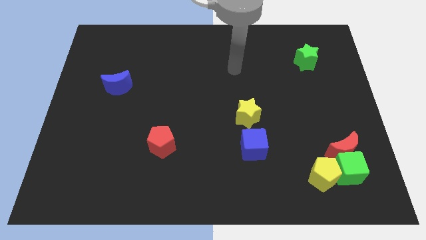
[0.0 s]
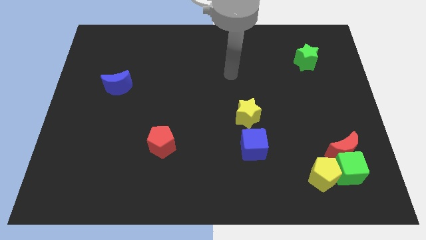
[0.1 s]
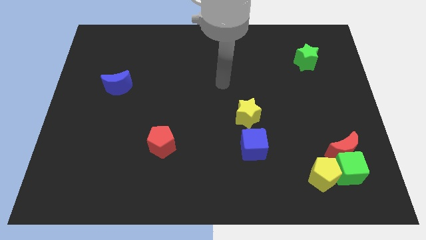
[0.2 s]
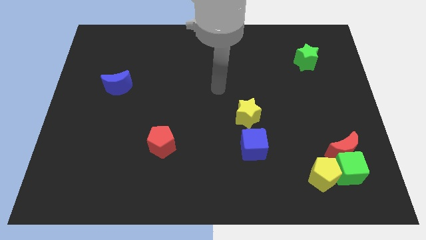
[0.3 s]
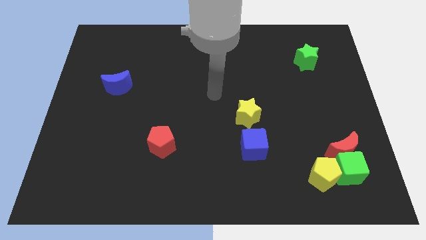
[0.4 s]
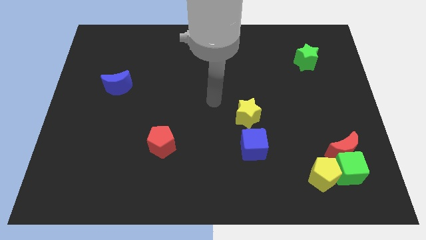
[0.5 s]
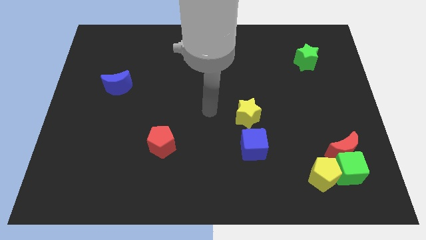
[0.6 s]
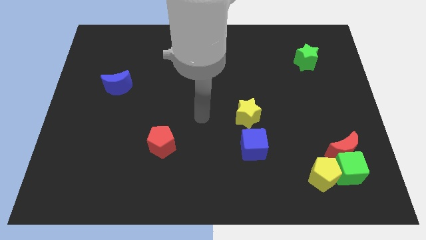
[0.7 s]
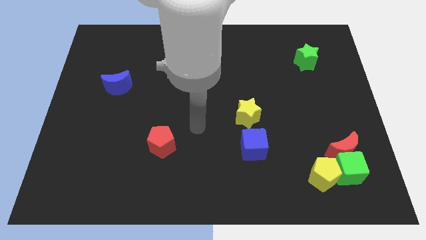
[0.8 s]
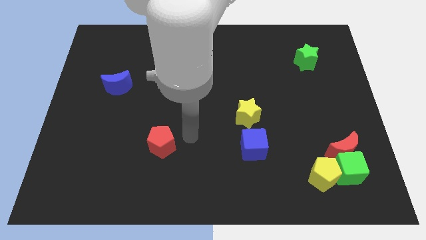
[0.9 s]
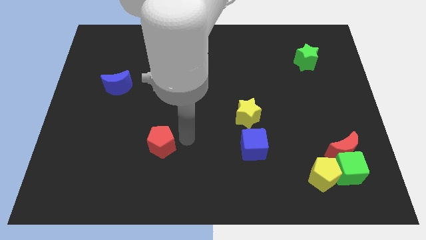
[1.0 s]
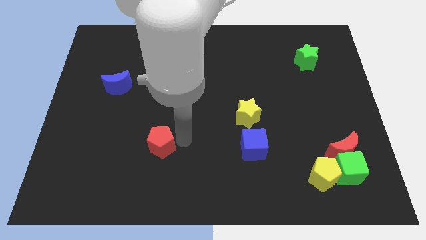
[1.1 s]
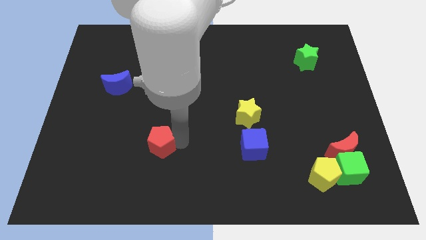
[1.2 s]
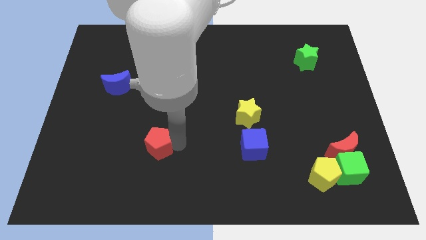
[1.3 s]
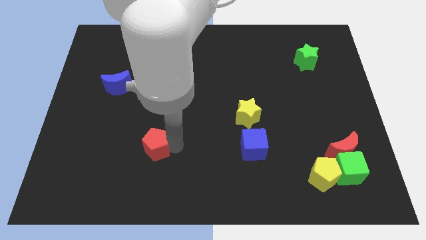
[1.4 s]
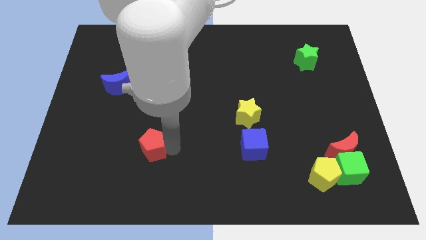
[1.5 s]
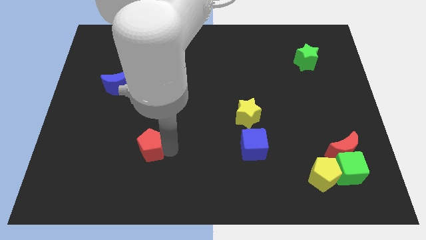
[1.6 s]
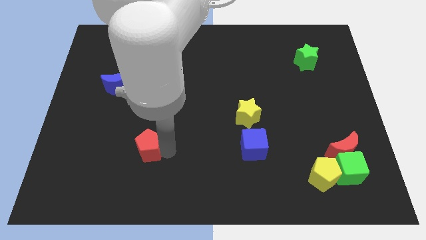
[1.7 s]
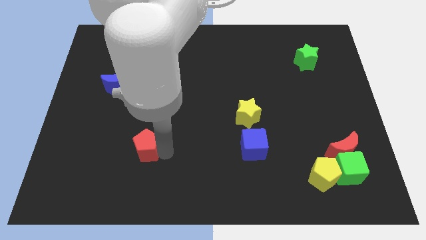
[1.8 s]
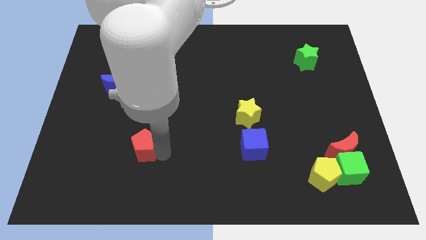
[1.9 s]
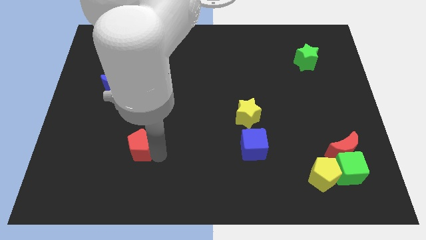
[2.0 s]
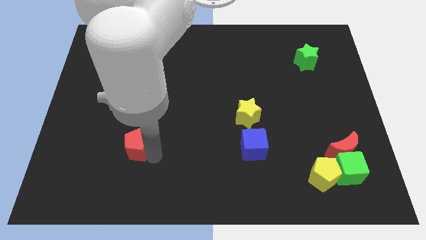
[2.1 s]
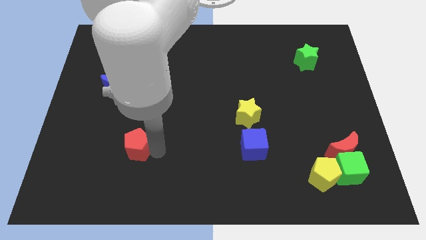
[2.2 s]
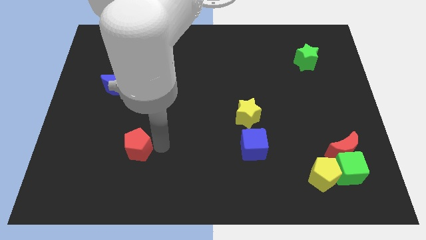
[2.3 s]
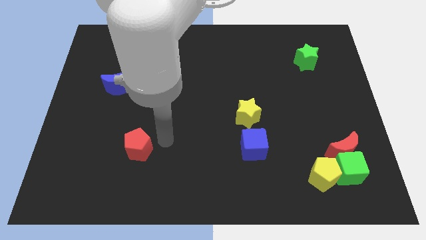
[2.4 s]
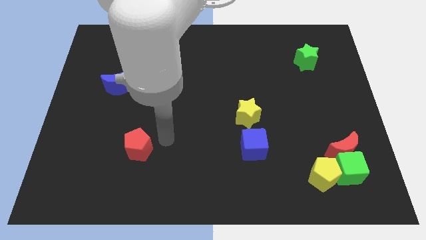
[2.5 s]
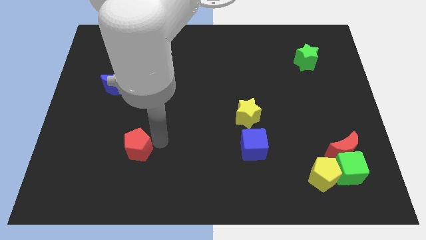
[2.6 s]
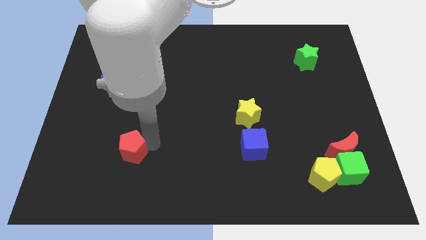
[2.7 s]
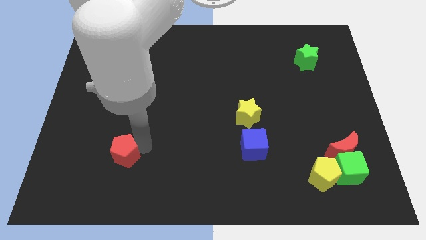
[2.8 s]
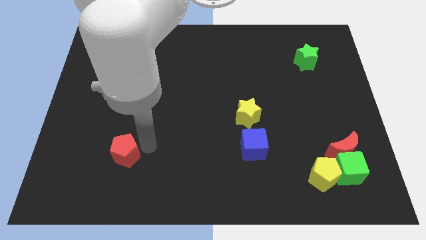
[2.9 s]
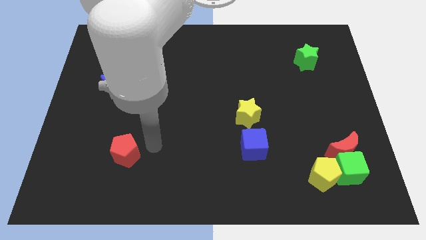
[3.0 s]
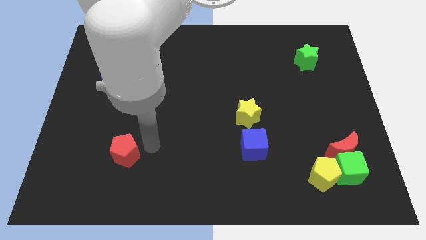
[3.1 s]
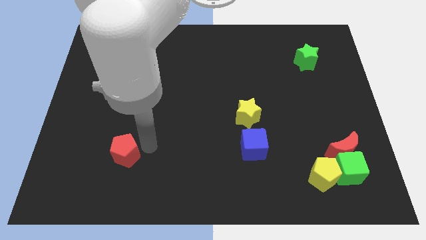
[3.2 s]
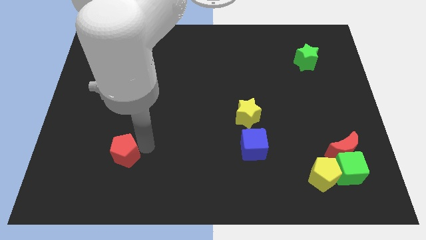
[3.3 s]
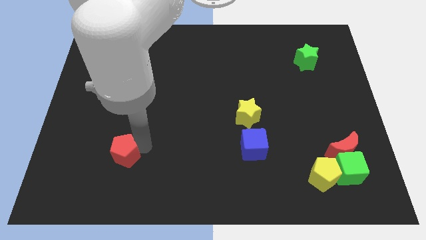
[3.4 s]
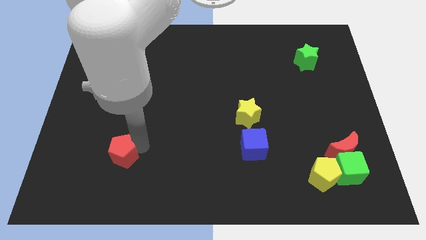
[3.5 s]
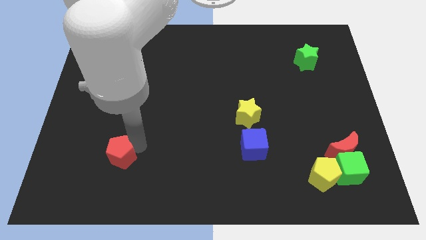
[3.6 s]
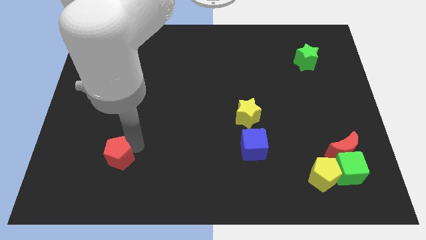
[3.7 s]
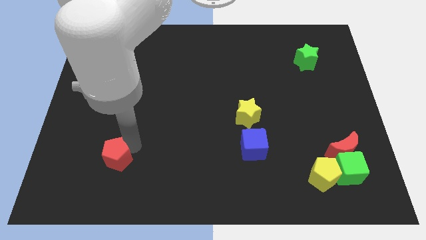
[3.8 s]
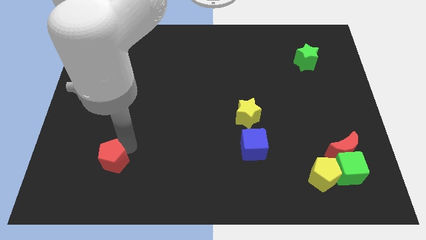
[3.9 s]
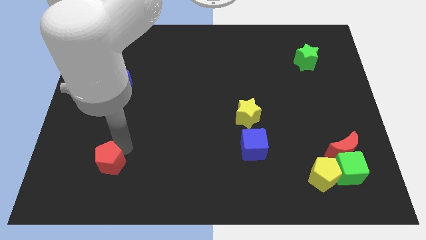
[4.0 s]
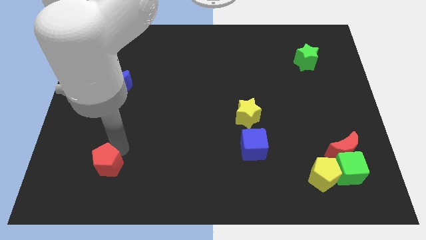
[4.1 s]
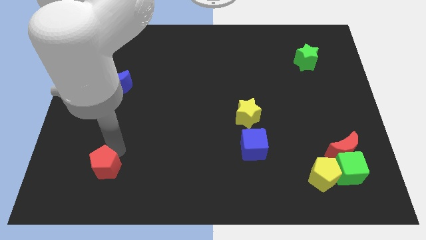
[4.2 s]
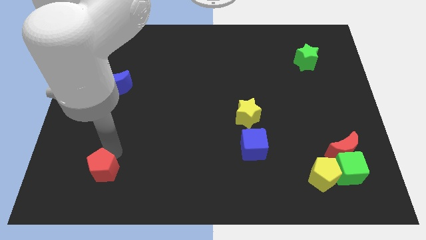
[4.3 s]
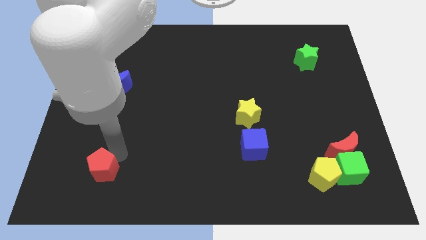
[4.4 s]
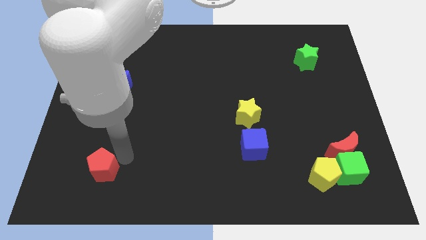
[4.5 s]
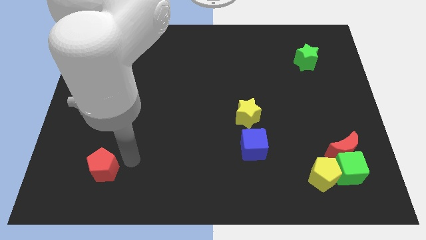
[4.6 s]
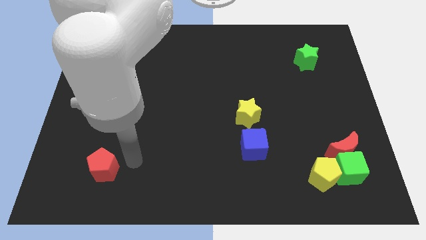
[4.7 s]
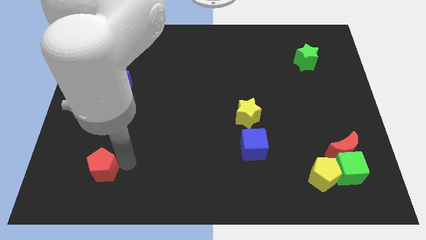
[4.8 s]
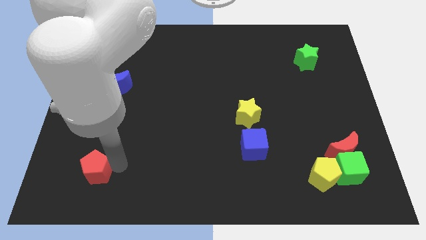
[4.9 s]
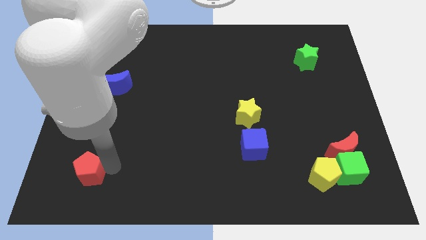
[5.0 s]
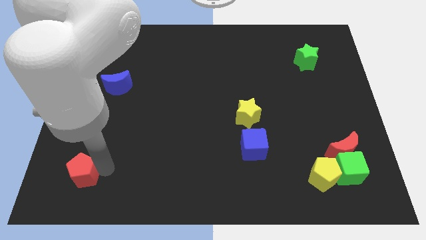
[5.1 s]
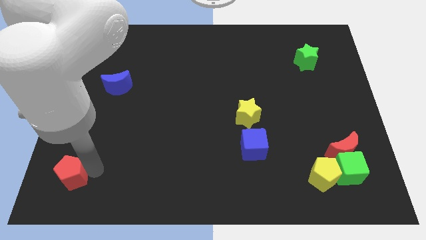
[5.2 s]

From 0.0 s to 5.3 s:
slide the red pentagon to the bottom left of the board
